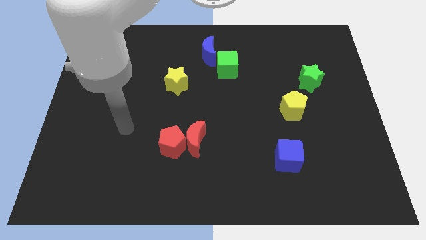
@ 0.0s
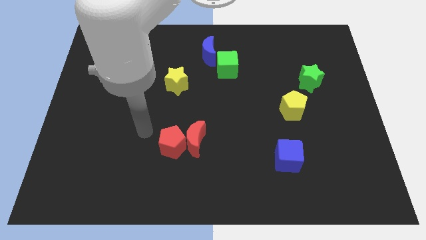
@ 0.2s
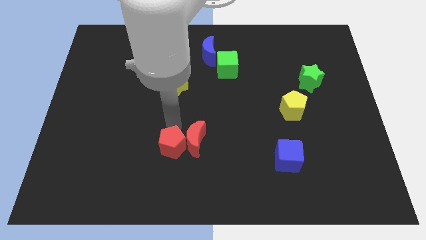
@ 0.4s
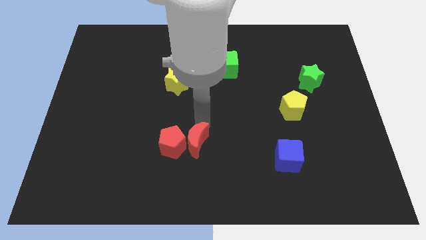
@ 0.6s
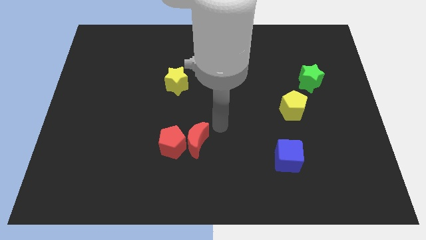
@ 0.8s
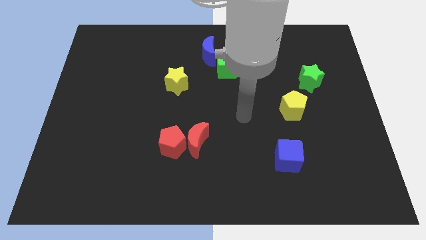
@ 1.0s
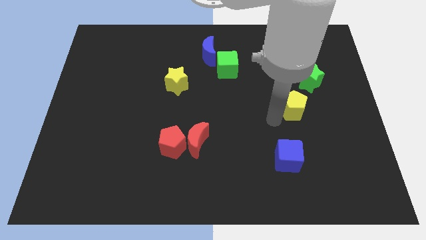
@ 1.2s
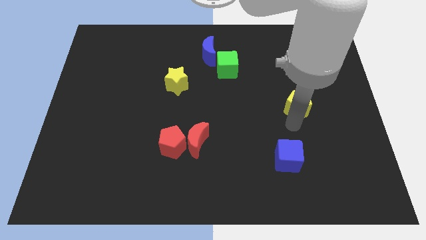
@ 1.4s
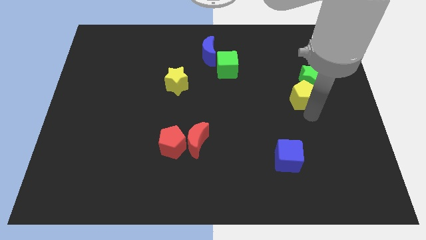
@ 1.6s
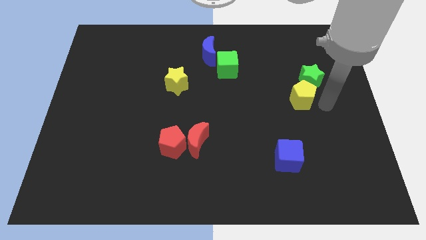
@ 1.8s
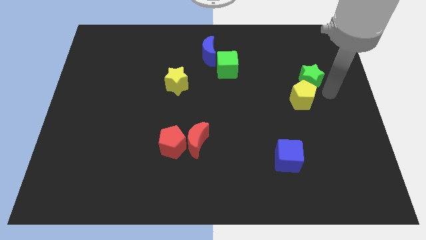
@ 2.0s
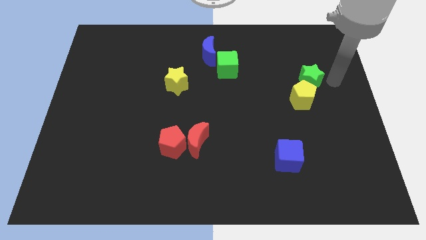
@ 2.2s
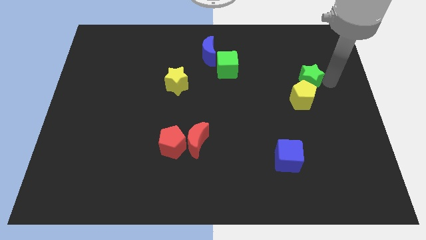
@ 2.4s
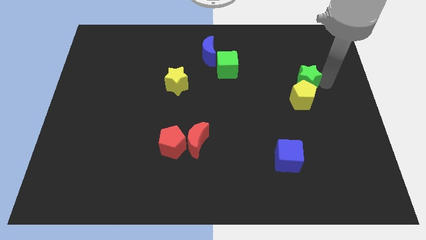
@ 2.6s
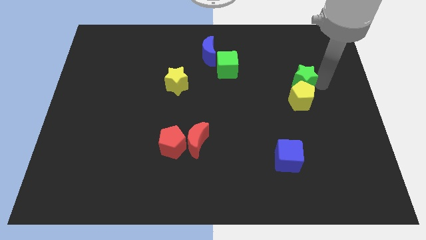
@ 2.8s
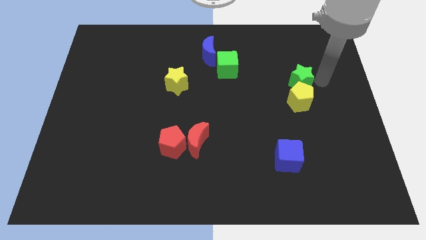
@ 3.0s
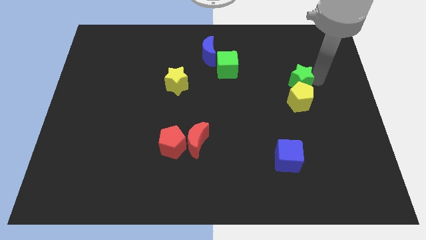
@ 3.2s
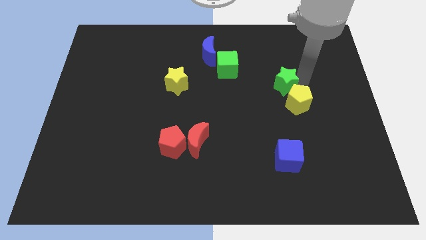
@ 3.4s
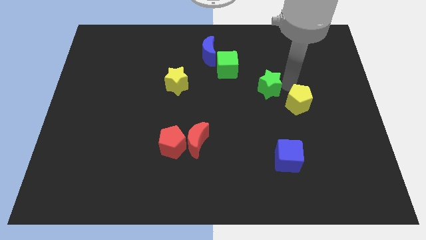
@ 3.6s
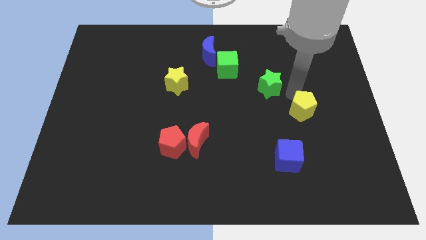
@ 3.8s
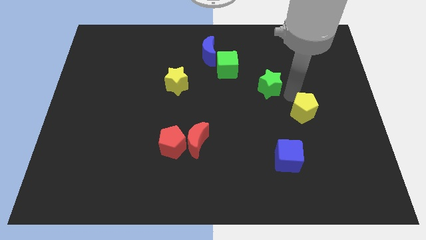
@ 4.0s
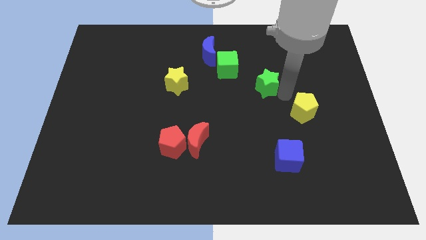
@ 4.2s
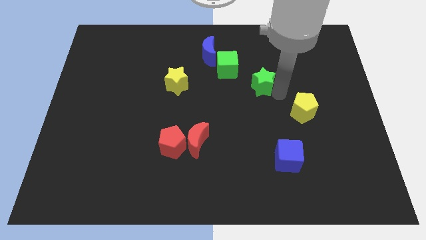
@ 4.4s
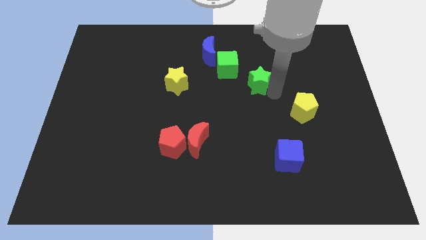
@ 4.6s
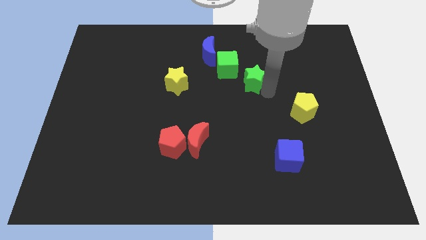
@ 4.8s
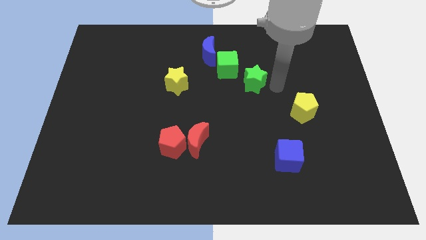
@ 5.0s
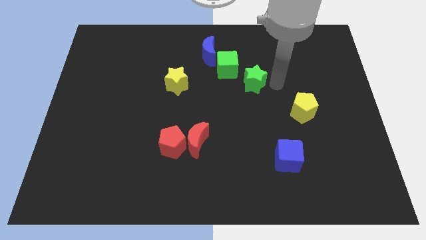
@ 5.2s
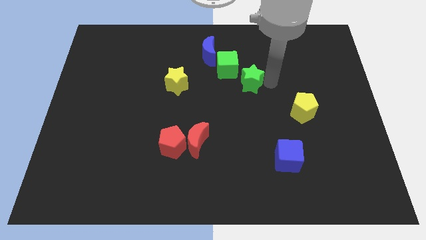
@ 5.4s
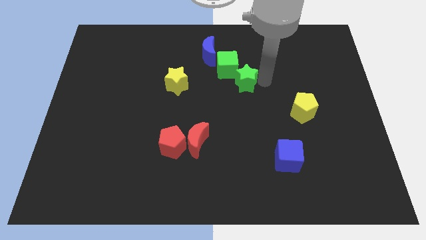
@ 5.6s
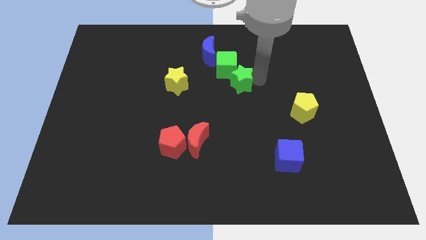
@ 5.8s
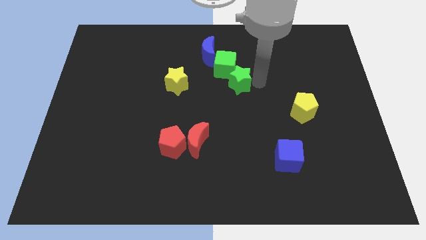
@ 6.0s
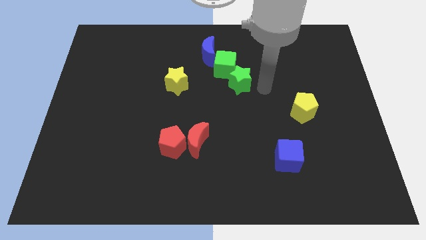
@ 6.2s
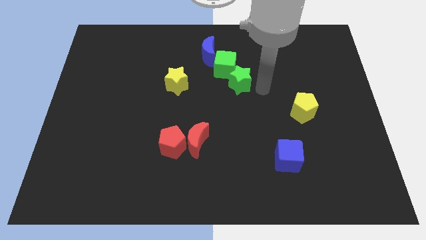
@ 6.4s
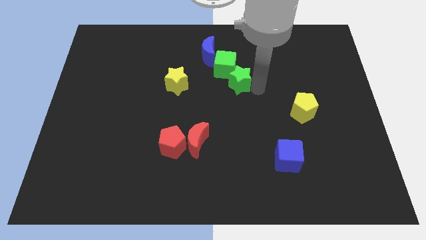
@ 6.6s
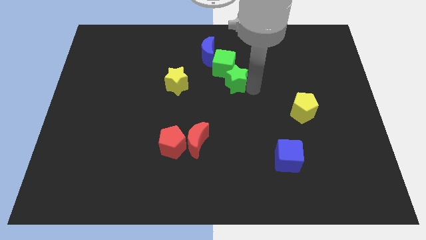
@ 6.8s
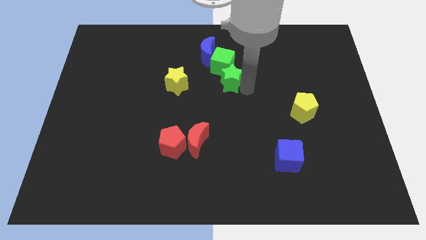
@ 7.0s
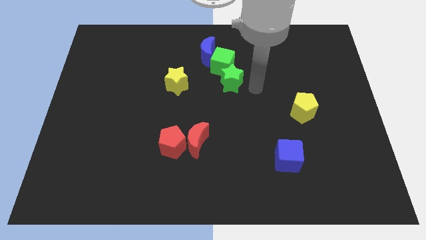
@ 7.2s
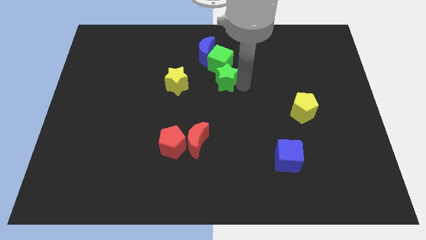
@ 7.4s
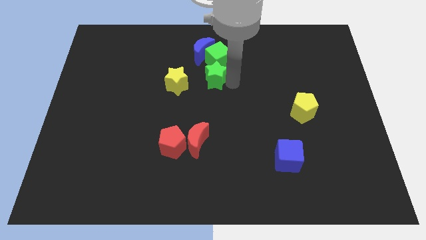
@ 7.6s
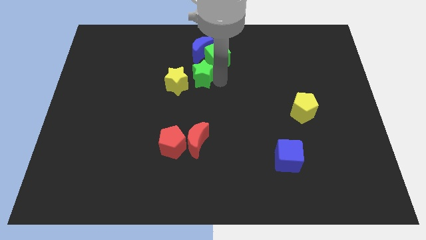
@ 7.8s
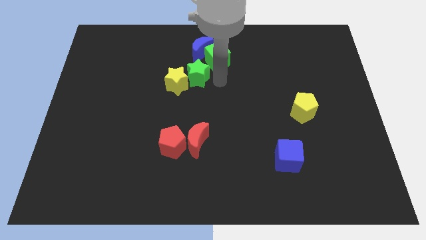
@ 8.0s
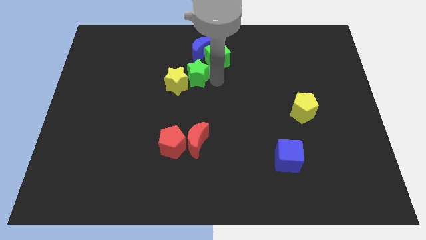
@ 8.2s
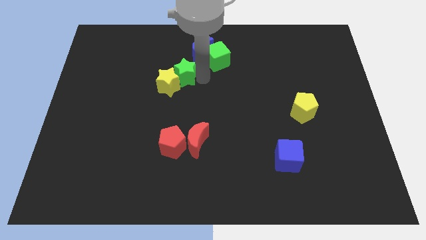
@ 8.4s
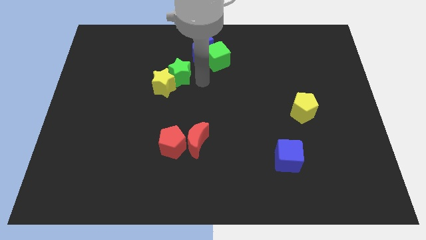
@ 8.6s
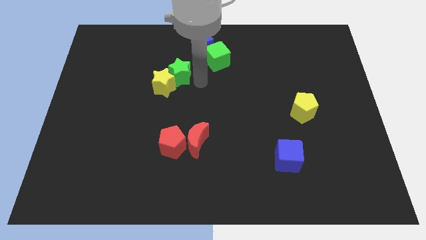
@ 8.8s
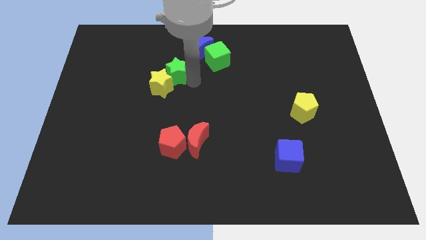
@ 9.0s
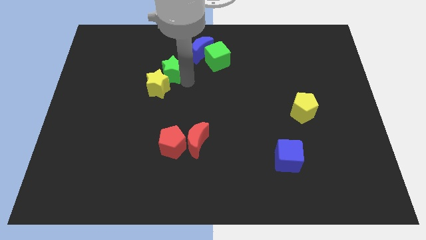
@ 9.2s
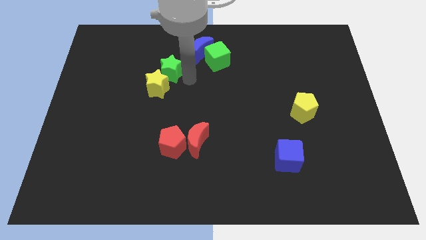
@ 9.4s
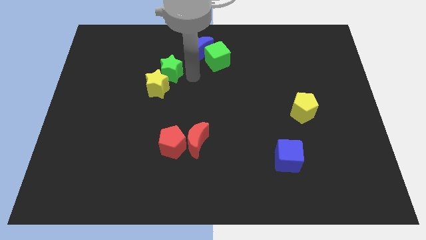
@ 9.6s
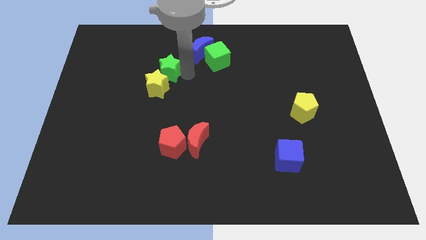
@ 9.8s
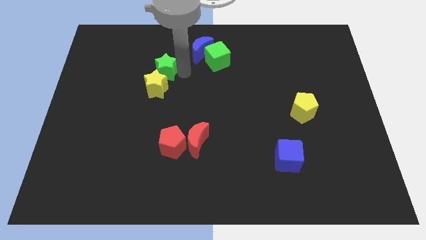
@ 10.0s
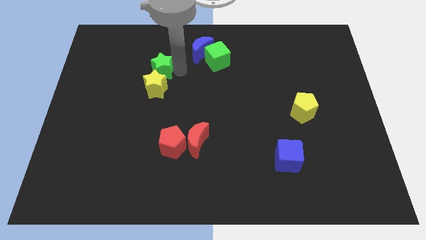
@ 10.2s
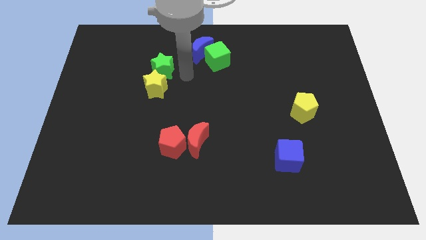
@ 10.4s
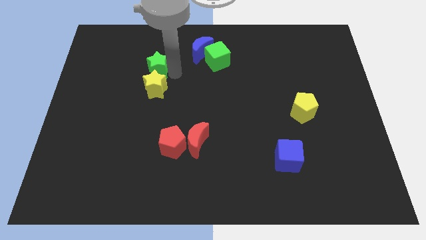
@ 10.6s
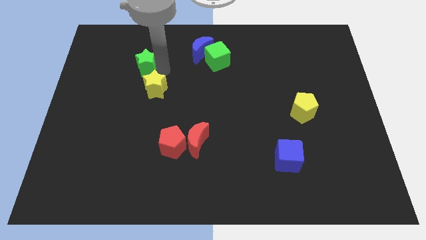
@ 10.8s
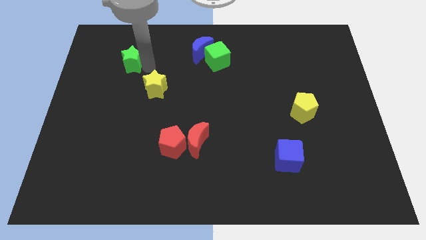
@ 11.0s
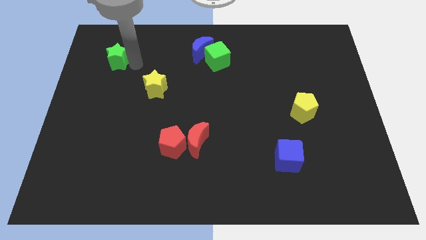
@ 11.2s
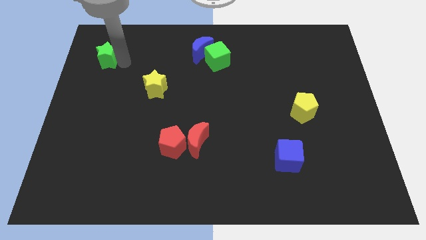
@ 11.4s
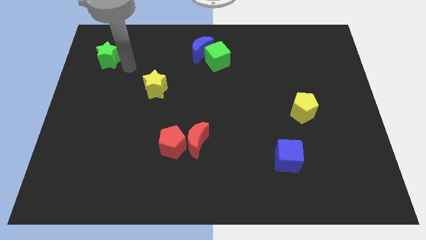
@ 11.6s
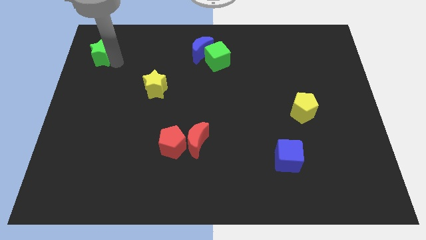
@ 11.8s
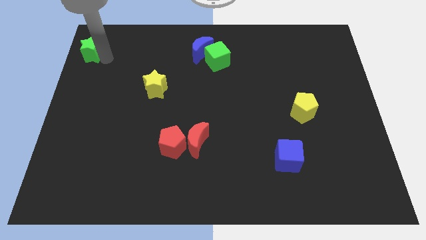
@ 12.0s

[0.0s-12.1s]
push the green star to the upper left corner
